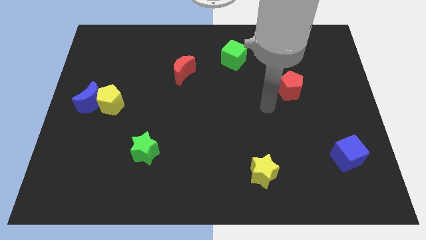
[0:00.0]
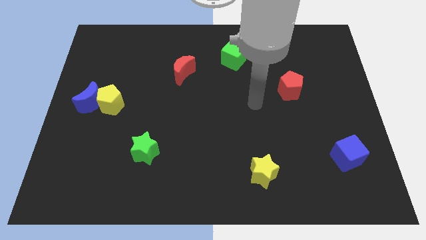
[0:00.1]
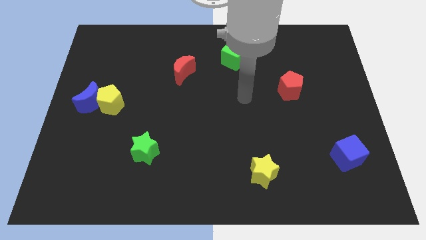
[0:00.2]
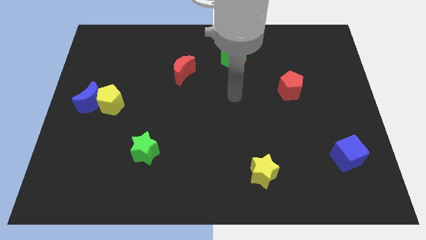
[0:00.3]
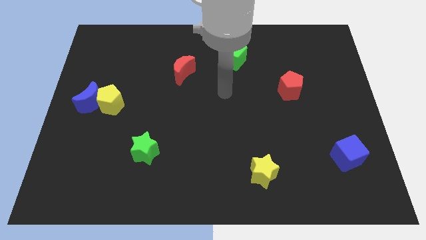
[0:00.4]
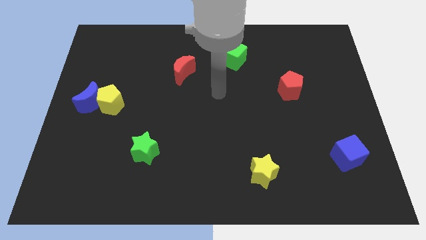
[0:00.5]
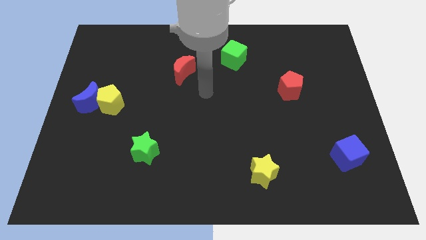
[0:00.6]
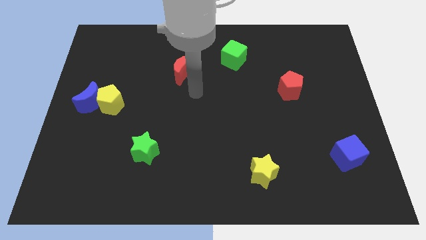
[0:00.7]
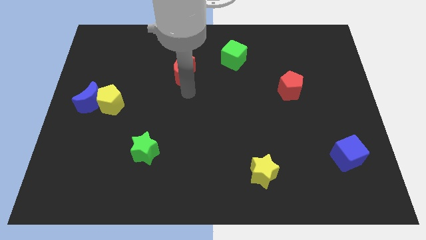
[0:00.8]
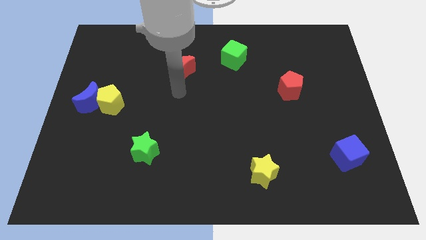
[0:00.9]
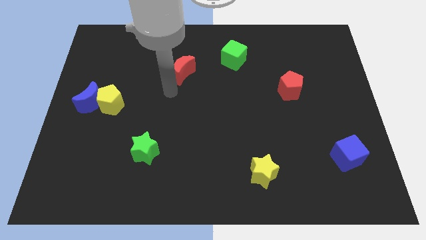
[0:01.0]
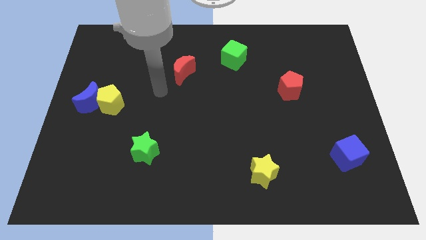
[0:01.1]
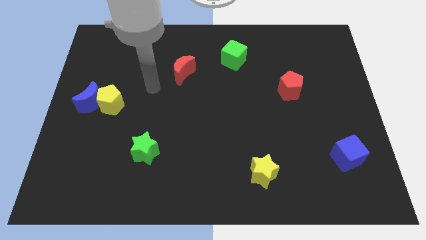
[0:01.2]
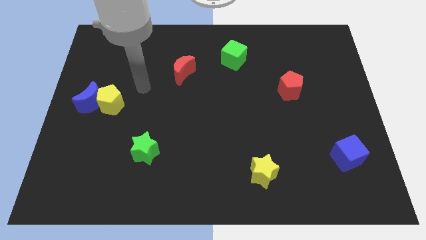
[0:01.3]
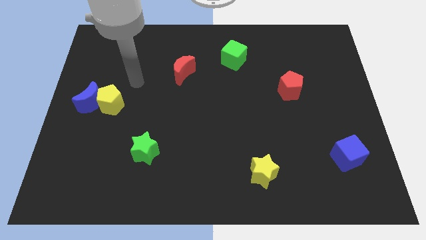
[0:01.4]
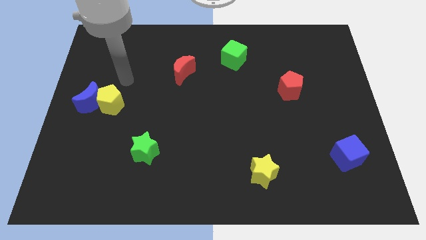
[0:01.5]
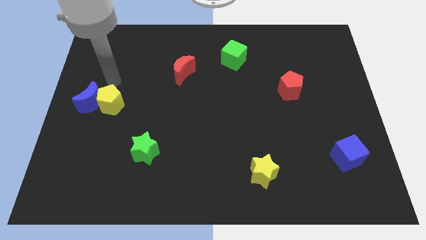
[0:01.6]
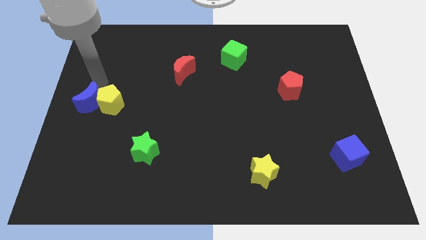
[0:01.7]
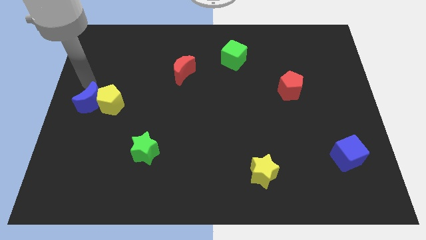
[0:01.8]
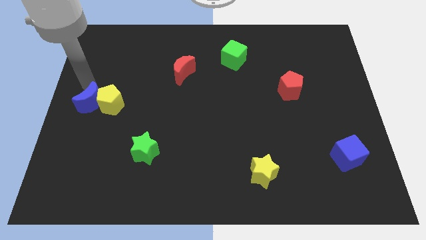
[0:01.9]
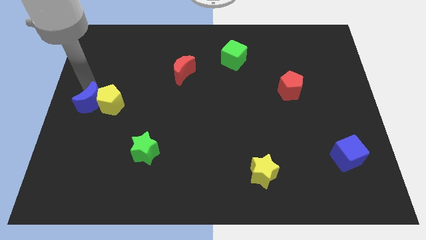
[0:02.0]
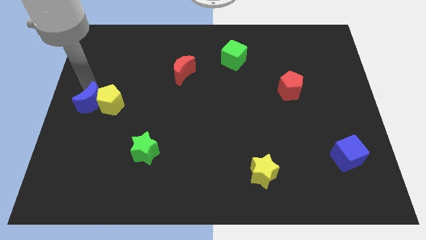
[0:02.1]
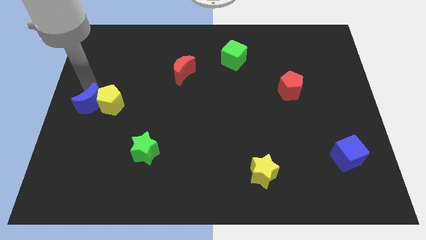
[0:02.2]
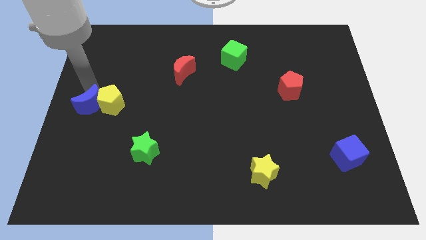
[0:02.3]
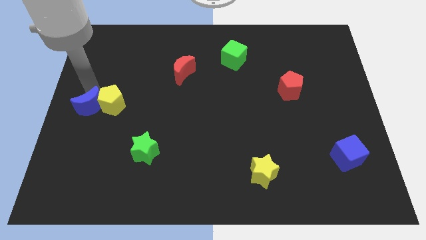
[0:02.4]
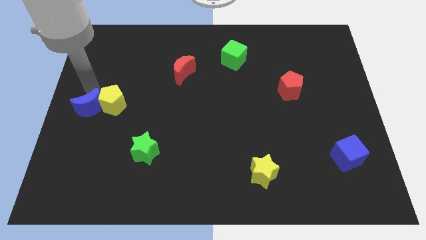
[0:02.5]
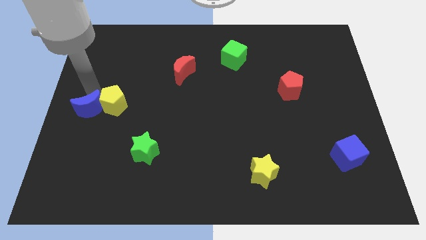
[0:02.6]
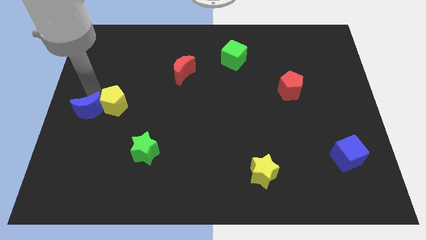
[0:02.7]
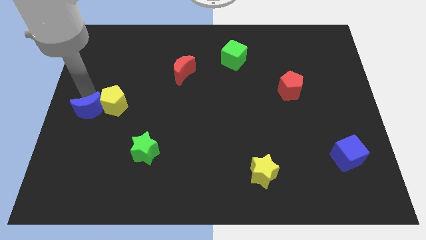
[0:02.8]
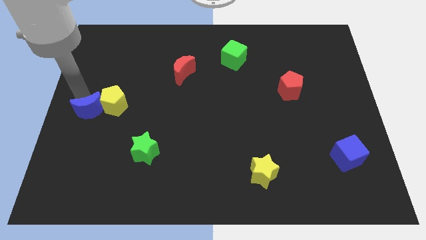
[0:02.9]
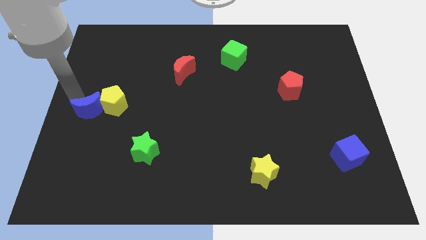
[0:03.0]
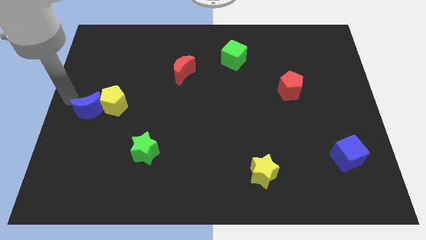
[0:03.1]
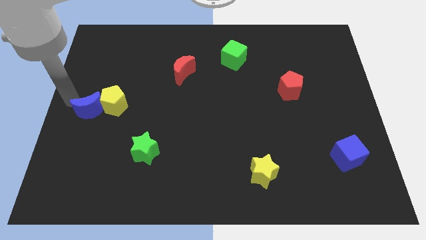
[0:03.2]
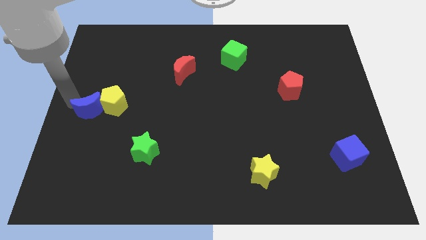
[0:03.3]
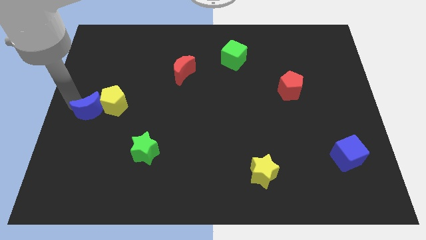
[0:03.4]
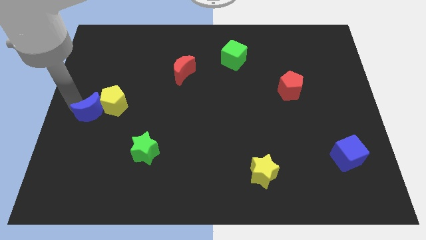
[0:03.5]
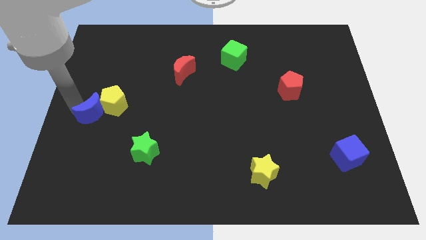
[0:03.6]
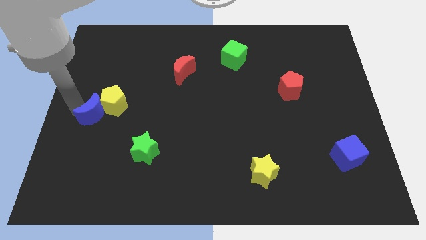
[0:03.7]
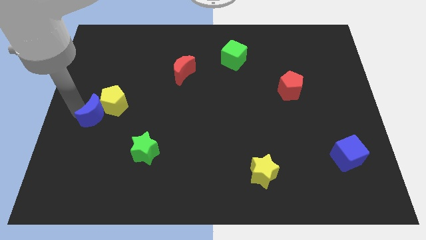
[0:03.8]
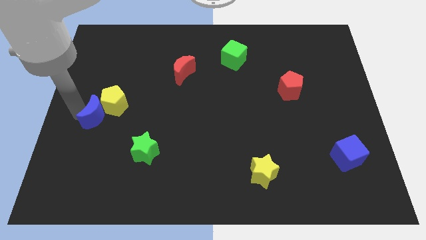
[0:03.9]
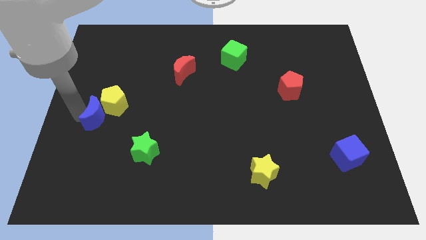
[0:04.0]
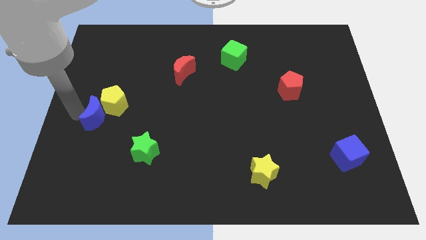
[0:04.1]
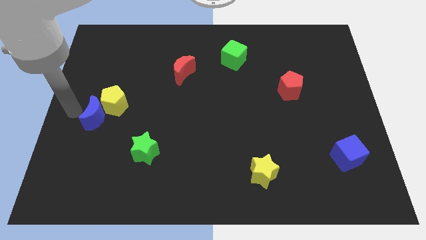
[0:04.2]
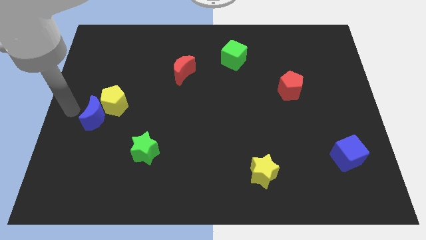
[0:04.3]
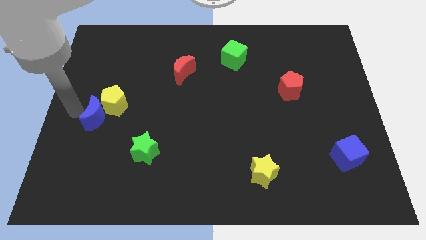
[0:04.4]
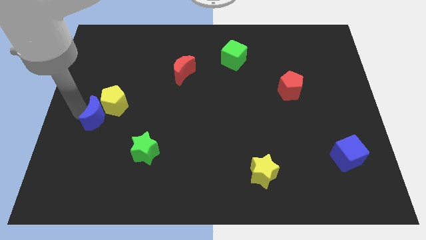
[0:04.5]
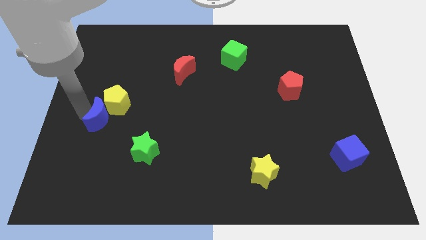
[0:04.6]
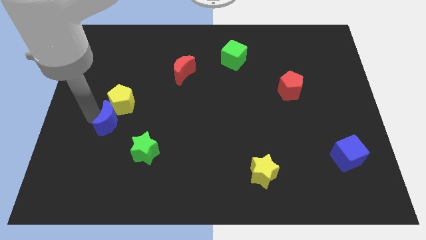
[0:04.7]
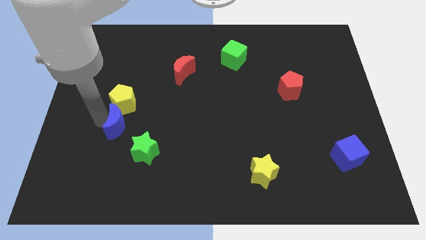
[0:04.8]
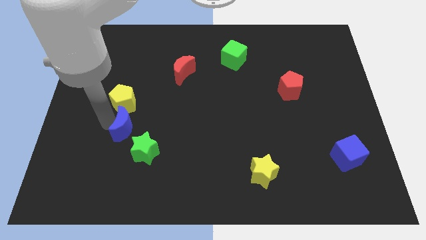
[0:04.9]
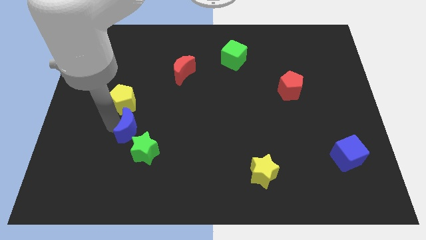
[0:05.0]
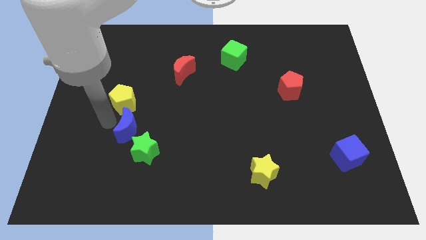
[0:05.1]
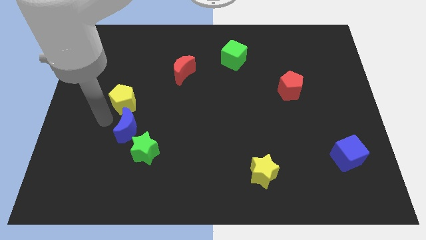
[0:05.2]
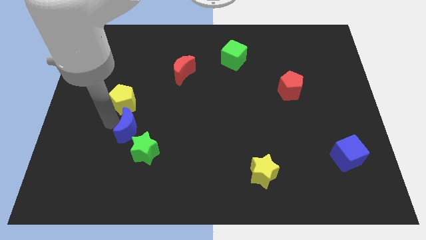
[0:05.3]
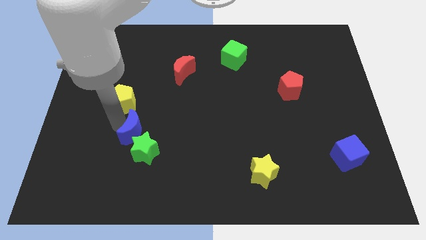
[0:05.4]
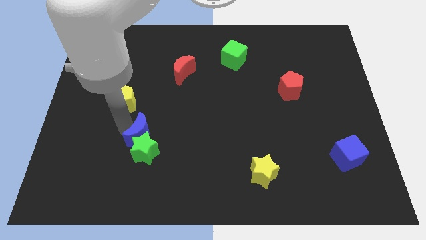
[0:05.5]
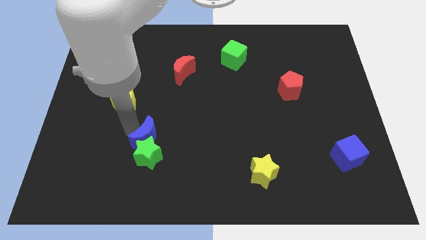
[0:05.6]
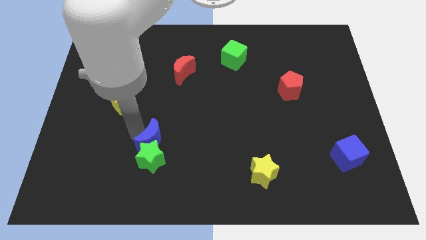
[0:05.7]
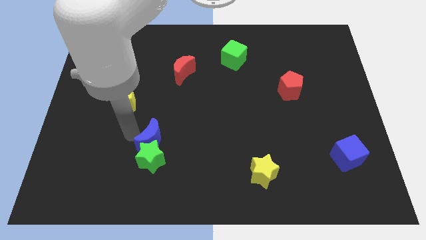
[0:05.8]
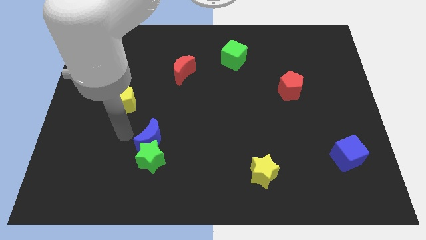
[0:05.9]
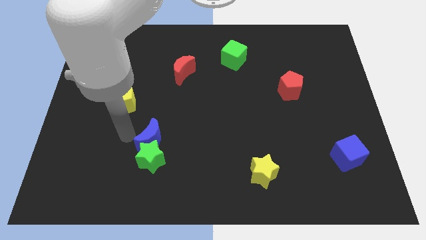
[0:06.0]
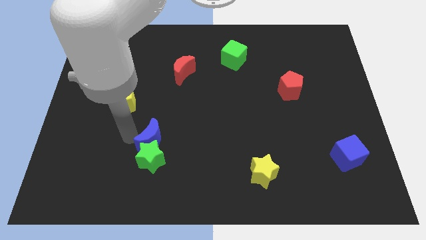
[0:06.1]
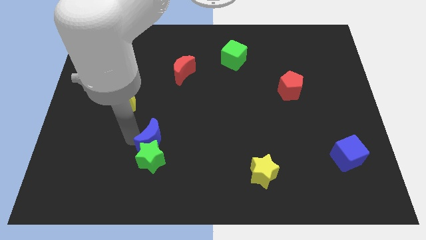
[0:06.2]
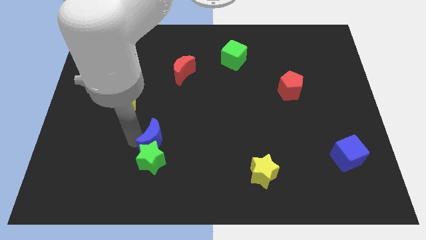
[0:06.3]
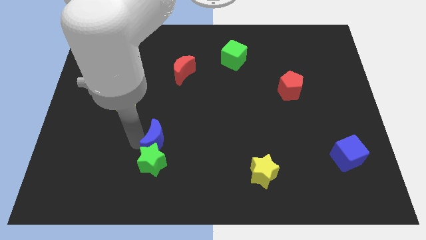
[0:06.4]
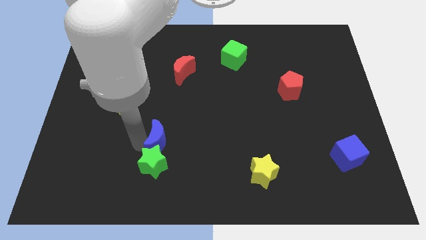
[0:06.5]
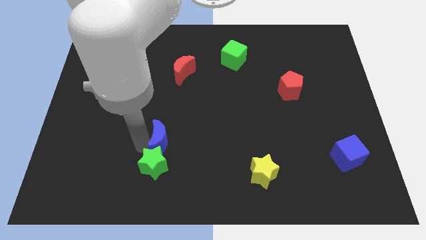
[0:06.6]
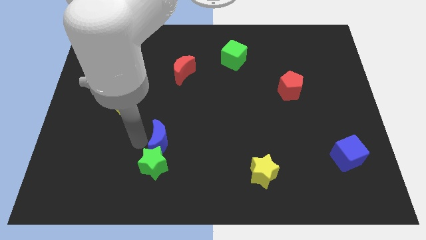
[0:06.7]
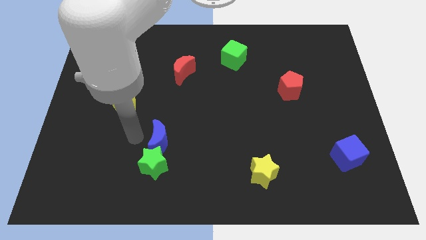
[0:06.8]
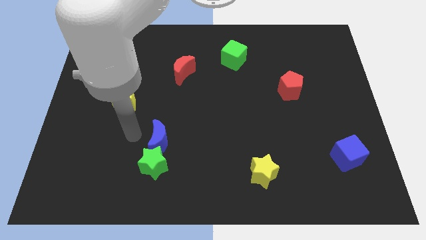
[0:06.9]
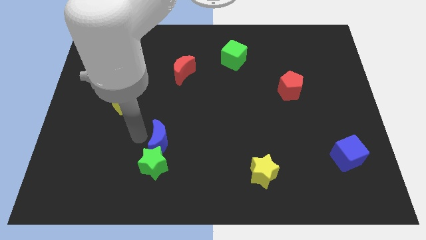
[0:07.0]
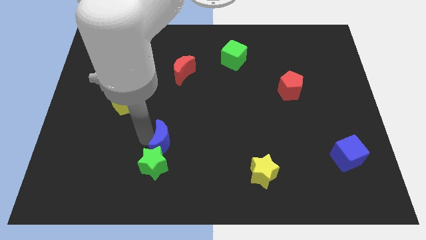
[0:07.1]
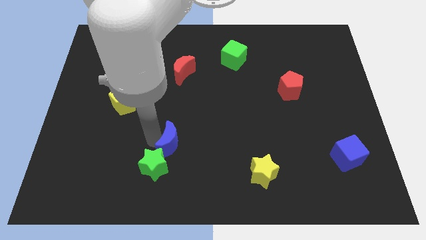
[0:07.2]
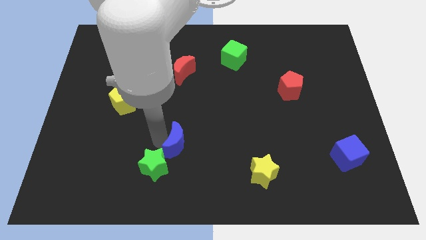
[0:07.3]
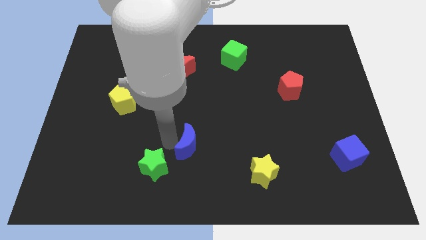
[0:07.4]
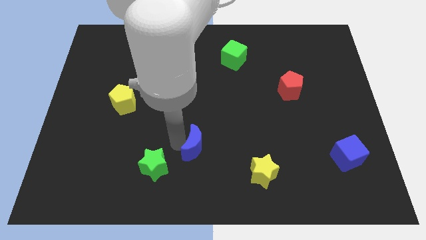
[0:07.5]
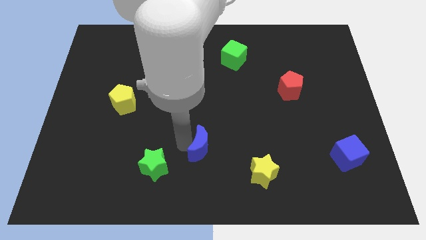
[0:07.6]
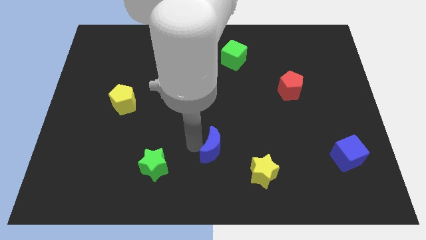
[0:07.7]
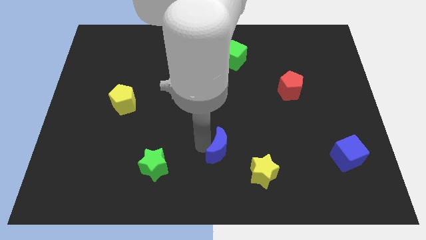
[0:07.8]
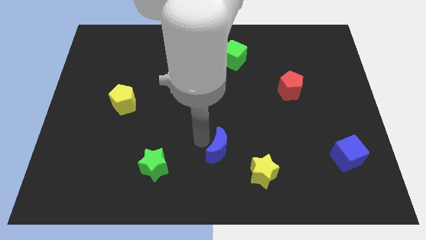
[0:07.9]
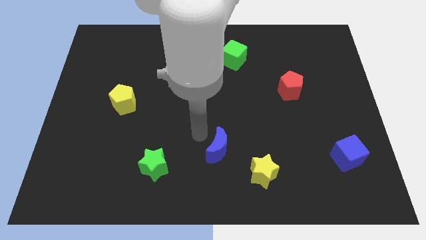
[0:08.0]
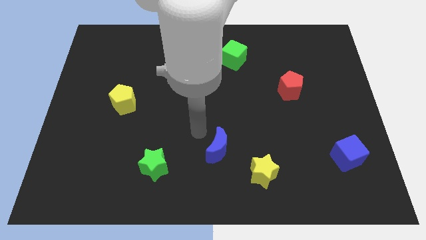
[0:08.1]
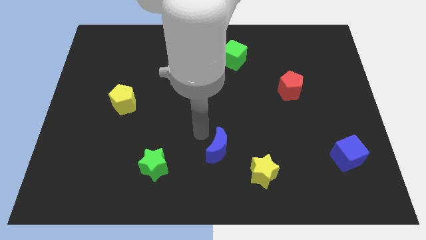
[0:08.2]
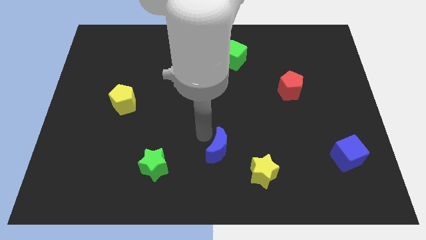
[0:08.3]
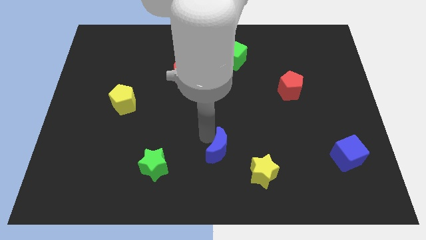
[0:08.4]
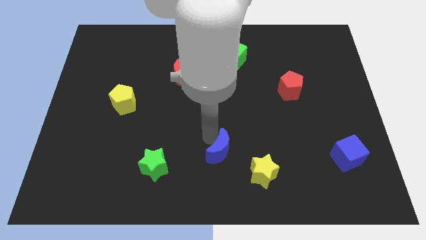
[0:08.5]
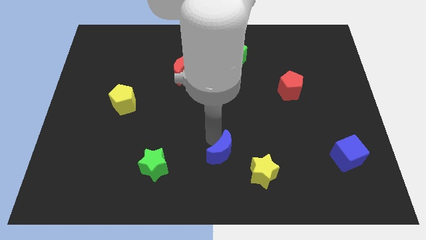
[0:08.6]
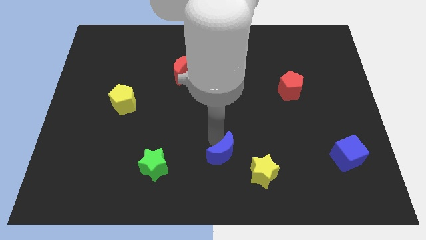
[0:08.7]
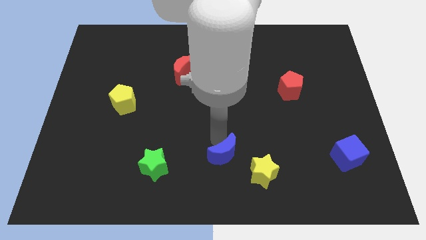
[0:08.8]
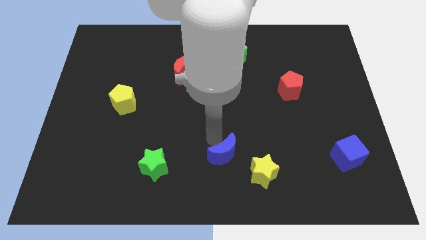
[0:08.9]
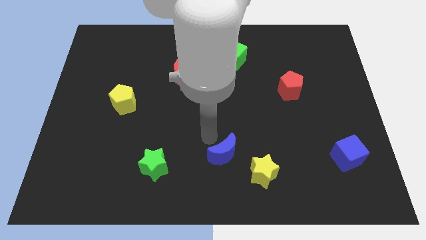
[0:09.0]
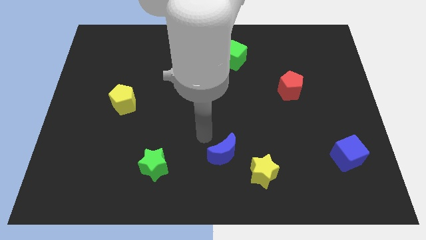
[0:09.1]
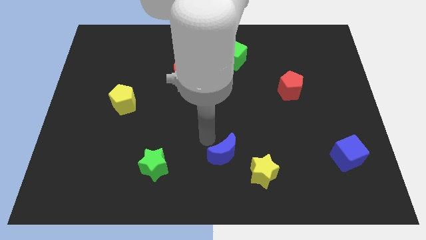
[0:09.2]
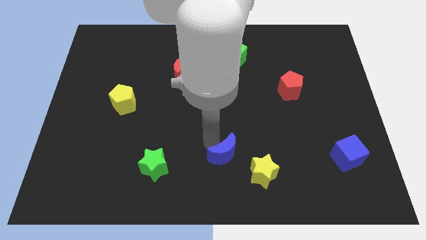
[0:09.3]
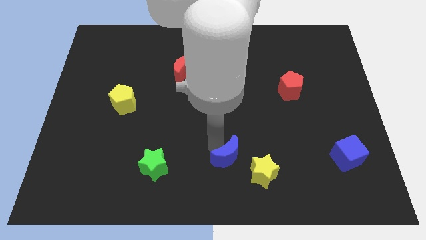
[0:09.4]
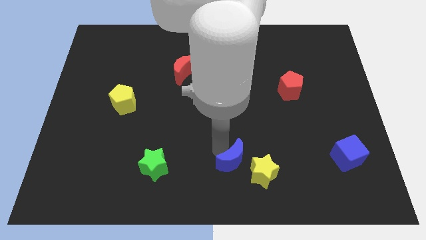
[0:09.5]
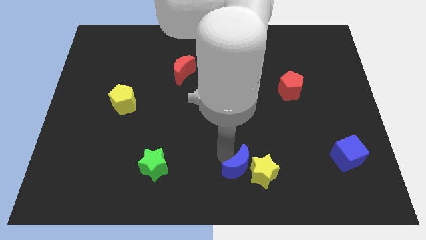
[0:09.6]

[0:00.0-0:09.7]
put the blue moon close to the yellow star
